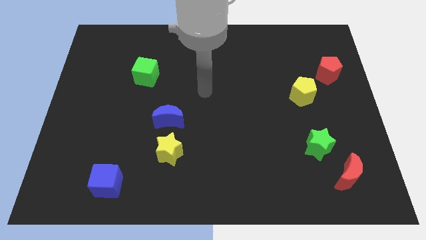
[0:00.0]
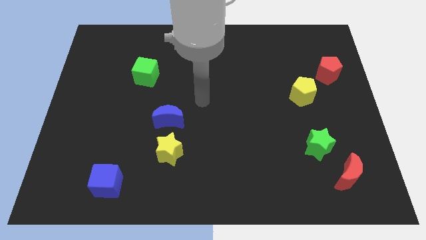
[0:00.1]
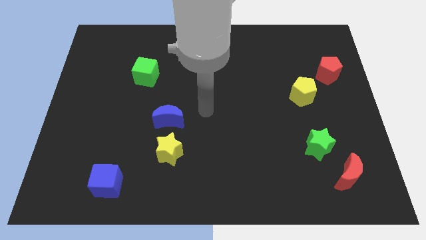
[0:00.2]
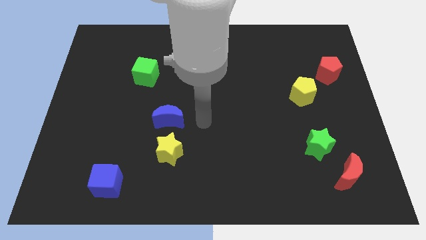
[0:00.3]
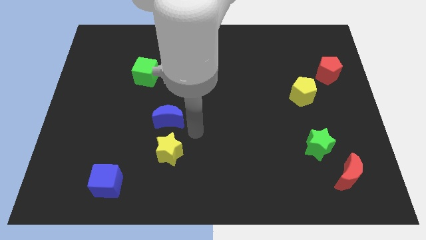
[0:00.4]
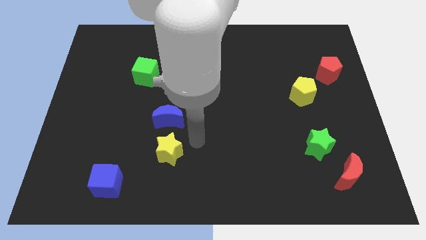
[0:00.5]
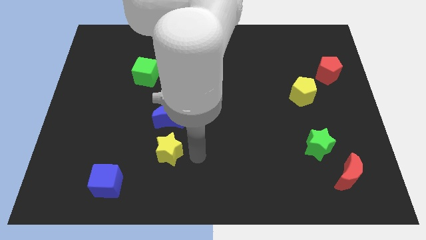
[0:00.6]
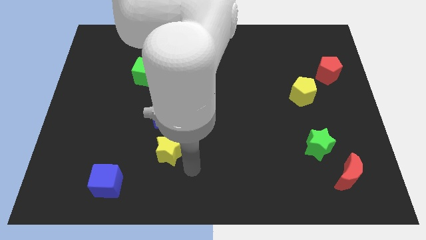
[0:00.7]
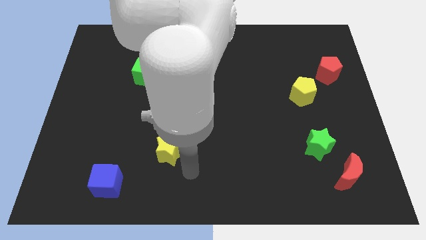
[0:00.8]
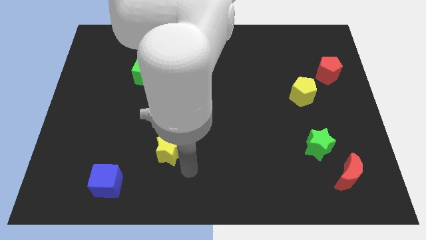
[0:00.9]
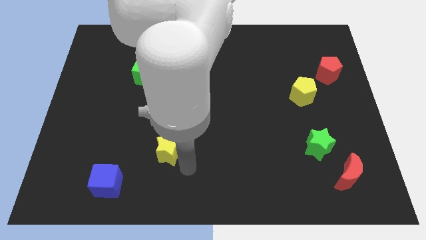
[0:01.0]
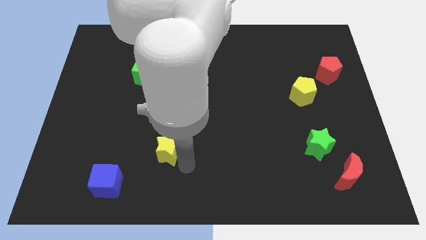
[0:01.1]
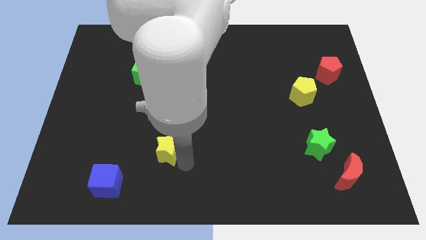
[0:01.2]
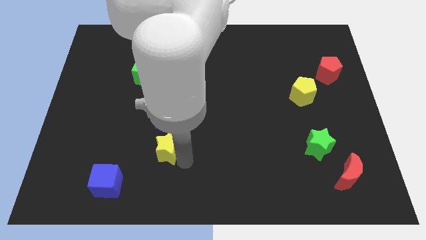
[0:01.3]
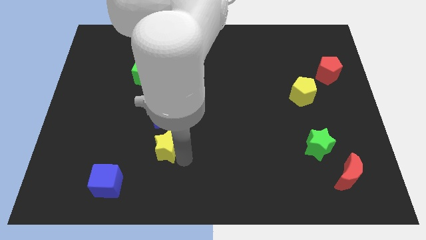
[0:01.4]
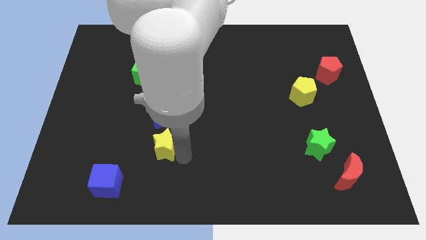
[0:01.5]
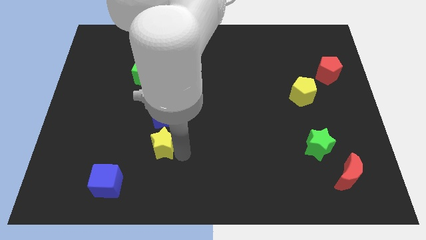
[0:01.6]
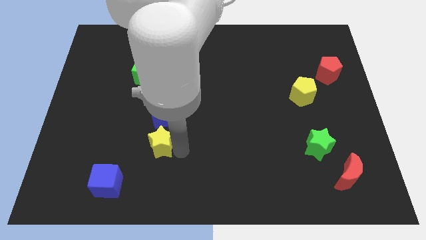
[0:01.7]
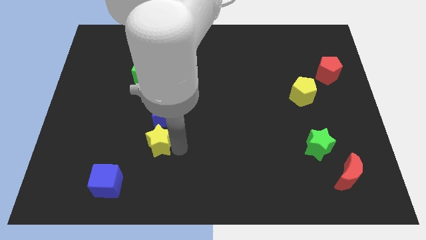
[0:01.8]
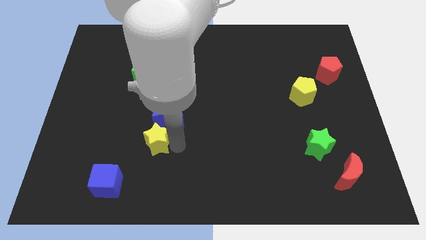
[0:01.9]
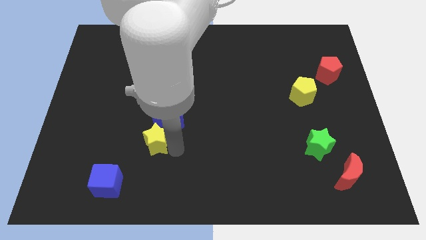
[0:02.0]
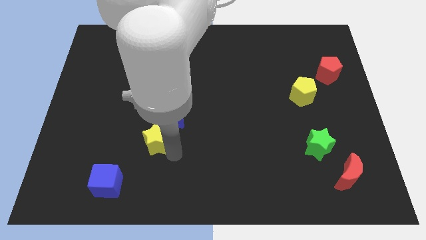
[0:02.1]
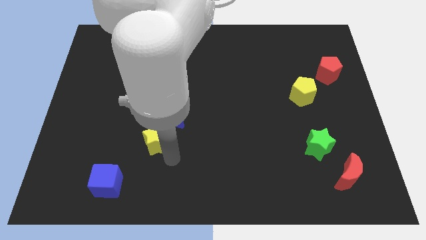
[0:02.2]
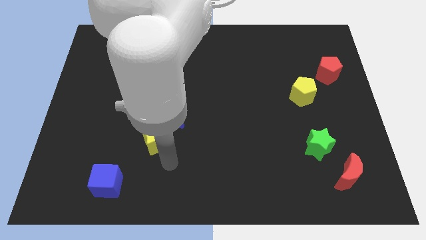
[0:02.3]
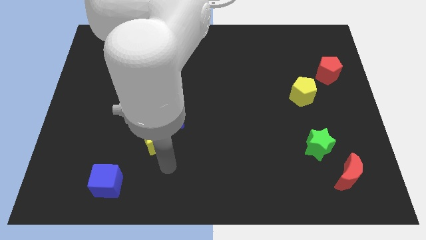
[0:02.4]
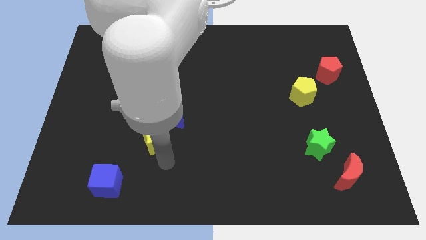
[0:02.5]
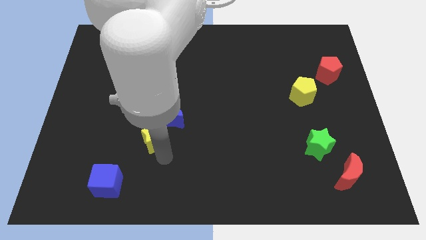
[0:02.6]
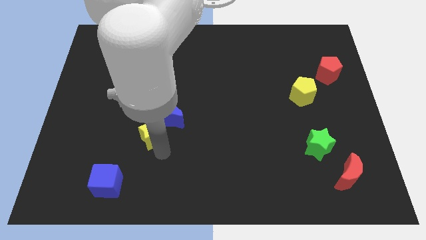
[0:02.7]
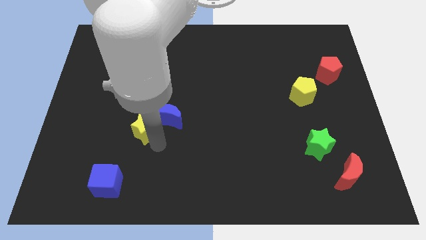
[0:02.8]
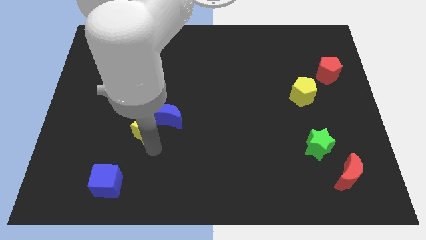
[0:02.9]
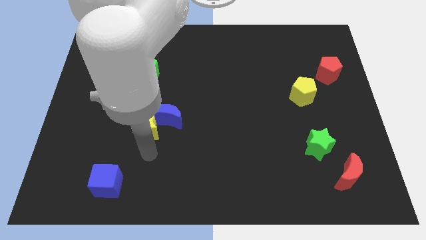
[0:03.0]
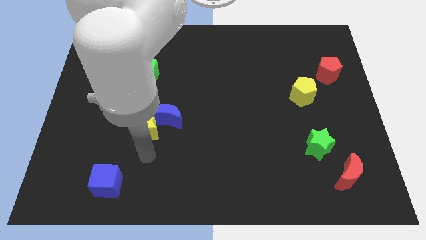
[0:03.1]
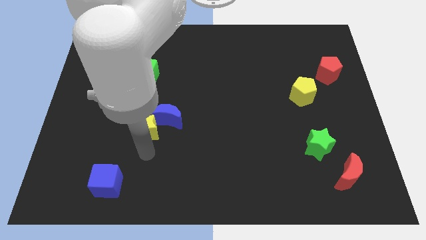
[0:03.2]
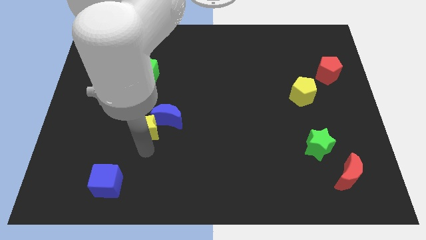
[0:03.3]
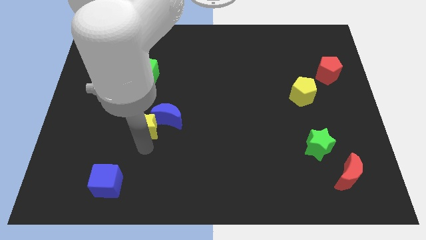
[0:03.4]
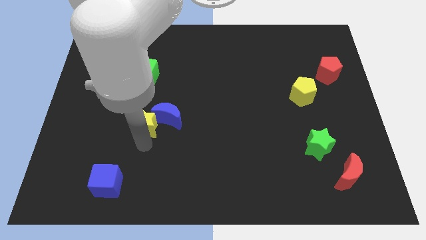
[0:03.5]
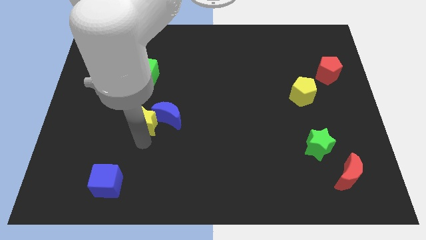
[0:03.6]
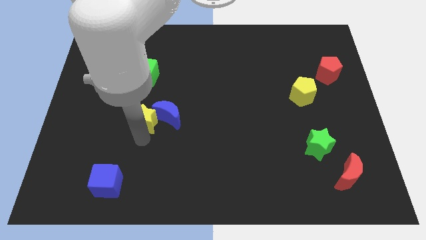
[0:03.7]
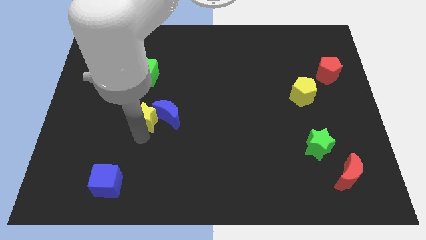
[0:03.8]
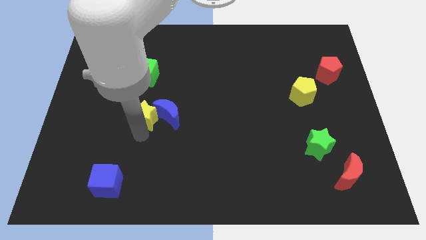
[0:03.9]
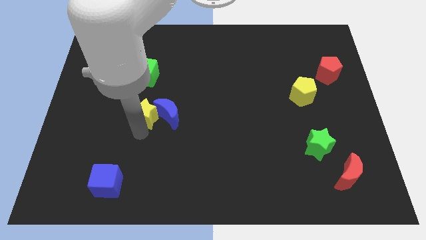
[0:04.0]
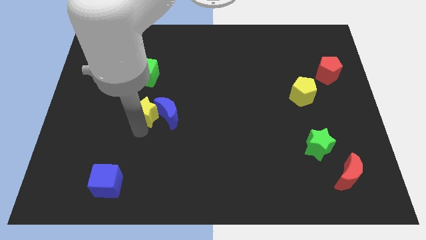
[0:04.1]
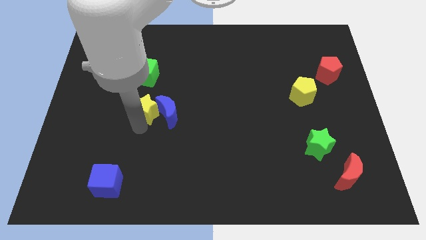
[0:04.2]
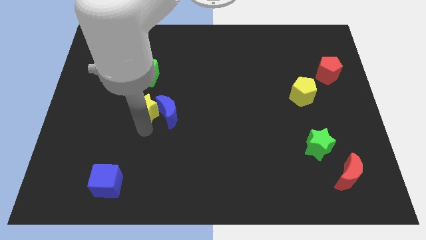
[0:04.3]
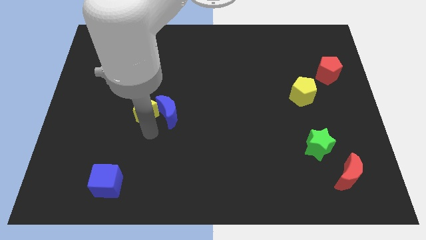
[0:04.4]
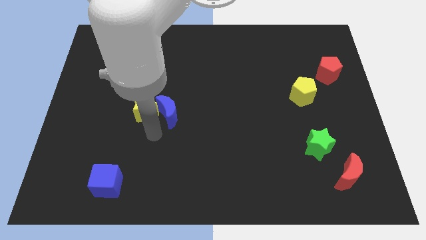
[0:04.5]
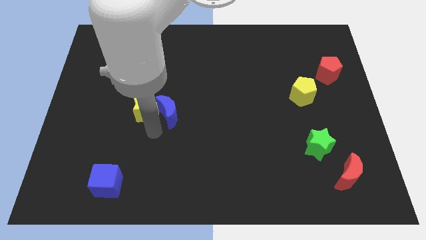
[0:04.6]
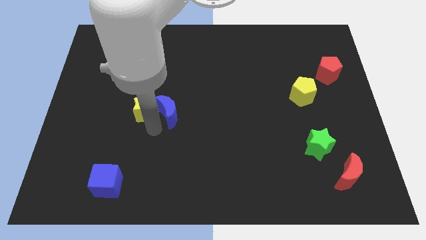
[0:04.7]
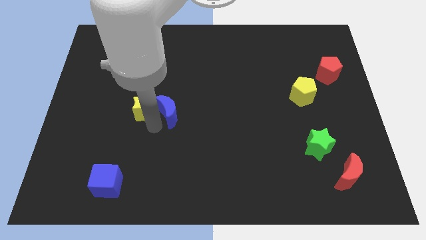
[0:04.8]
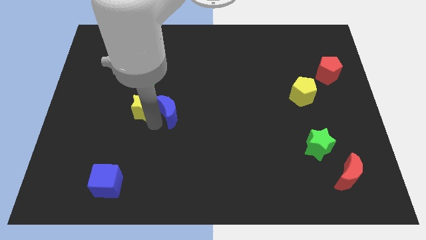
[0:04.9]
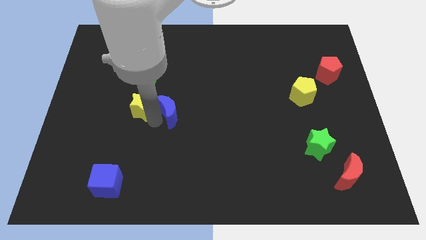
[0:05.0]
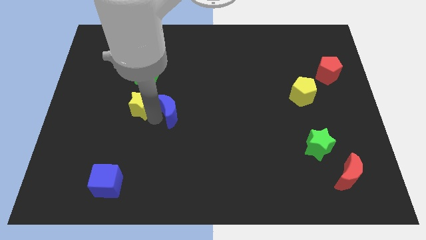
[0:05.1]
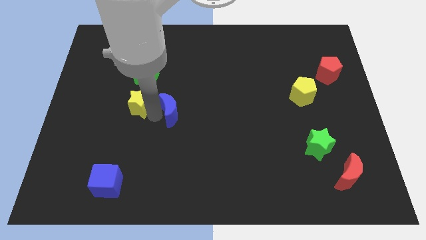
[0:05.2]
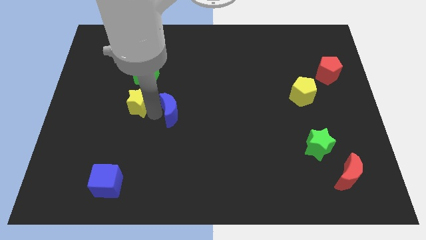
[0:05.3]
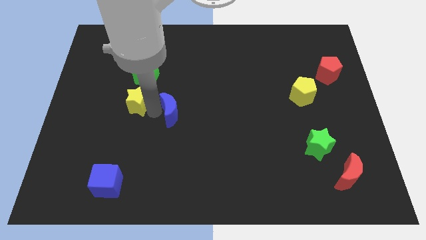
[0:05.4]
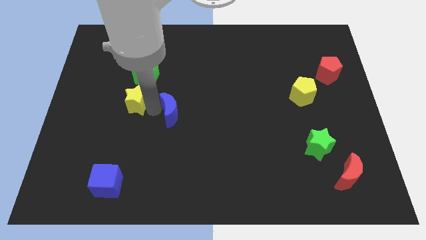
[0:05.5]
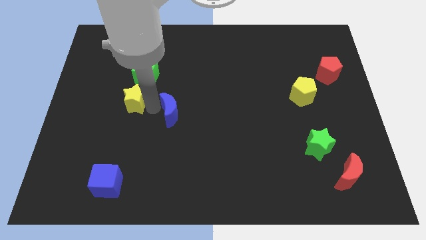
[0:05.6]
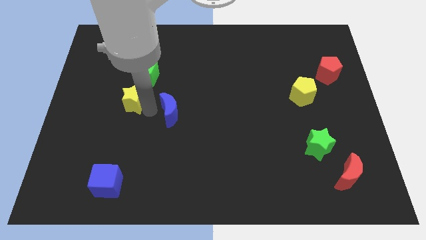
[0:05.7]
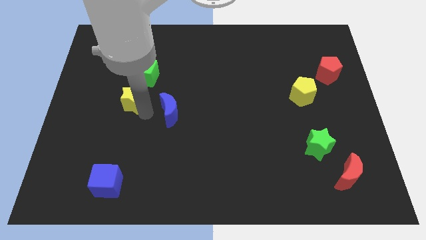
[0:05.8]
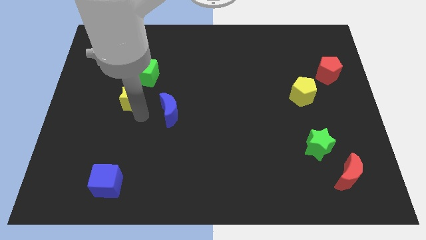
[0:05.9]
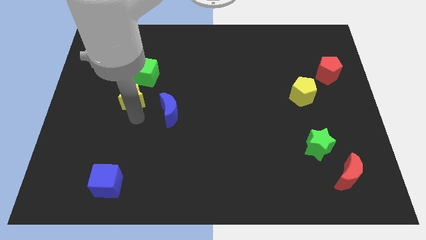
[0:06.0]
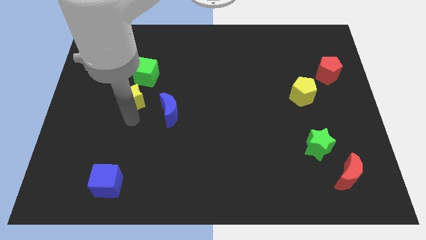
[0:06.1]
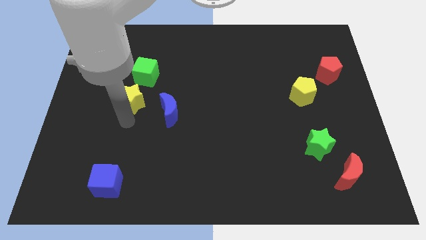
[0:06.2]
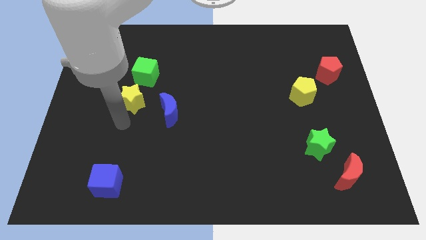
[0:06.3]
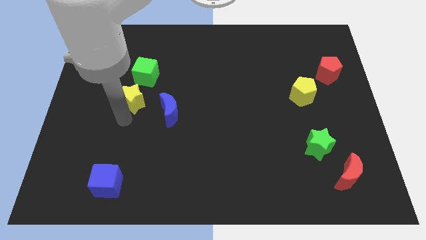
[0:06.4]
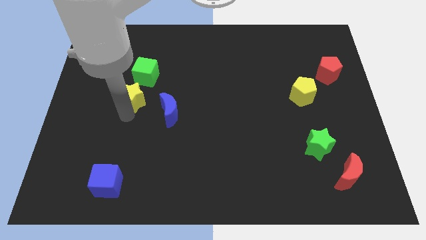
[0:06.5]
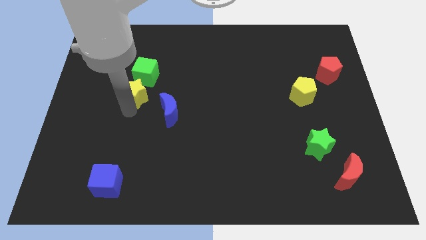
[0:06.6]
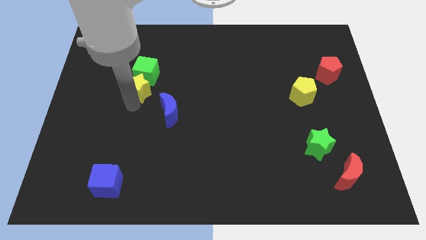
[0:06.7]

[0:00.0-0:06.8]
move the yellow star close to the green cube
